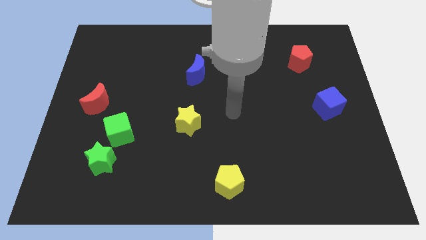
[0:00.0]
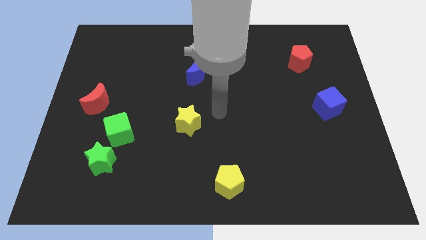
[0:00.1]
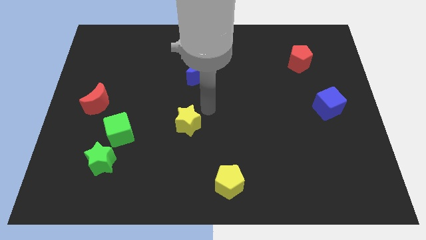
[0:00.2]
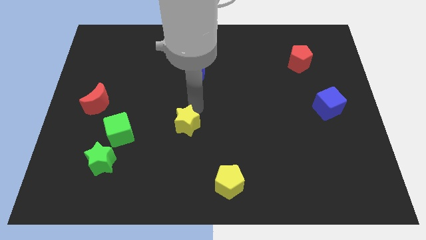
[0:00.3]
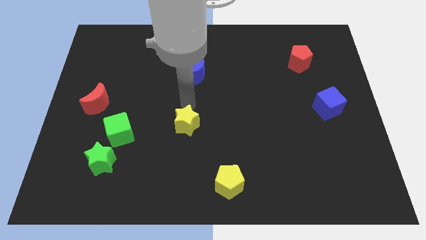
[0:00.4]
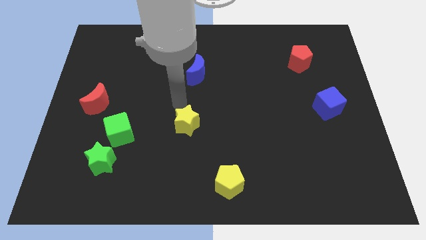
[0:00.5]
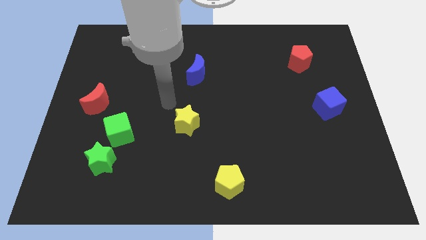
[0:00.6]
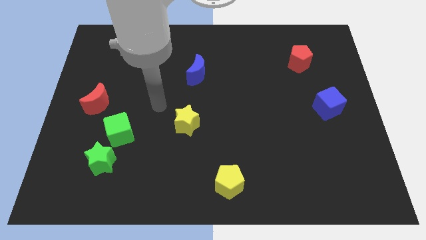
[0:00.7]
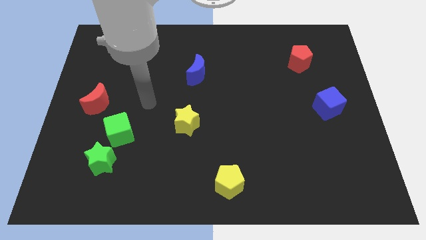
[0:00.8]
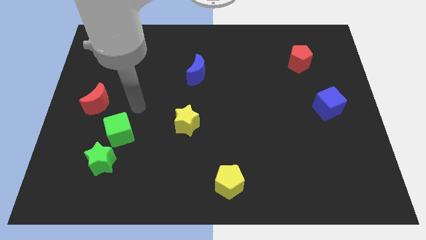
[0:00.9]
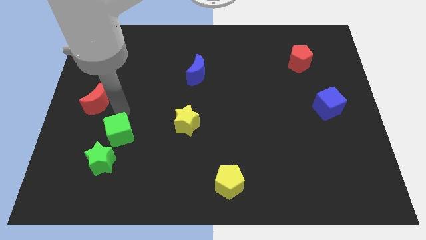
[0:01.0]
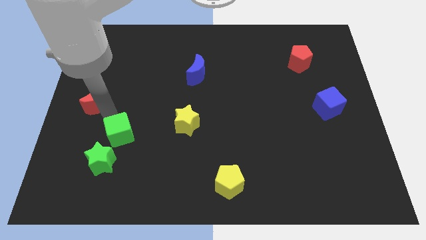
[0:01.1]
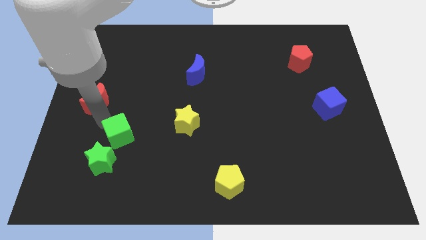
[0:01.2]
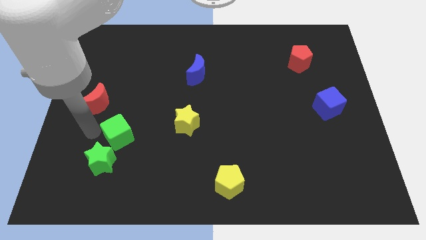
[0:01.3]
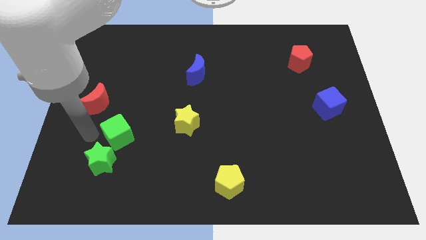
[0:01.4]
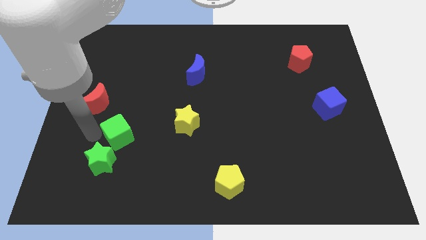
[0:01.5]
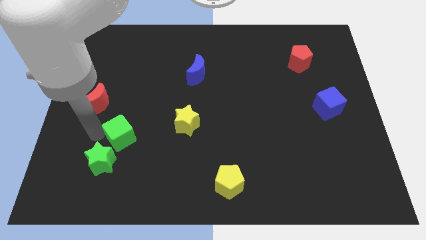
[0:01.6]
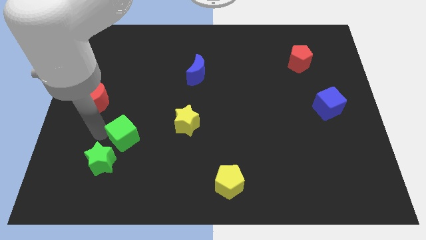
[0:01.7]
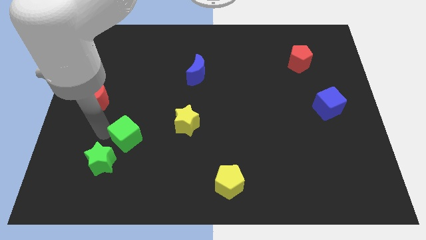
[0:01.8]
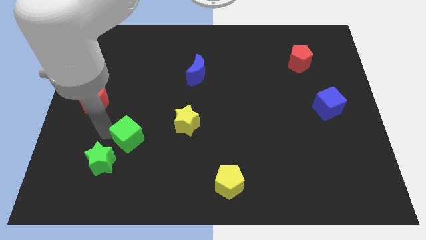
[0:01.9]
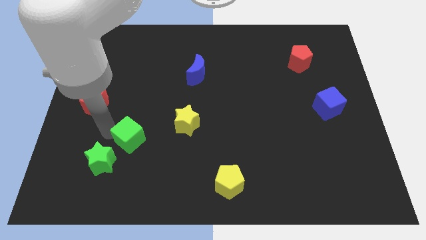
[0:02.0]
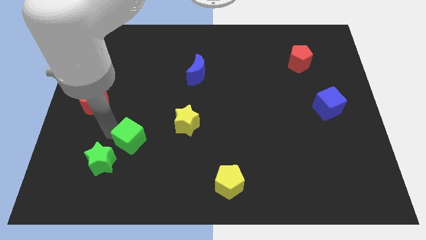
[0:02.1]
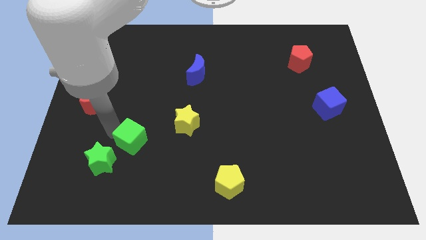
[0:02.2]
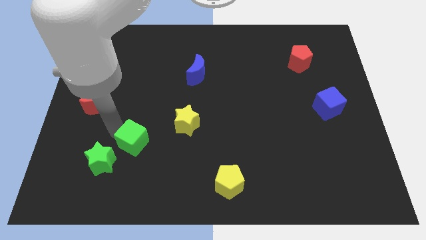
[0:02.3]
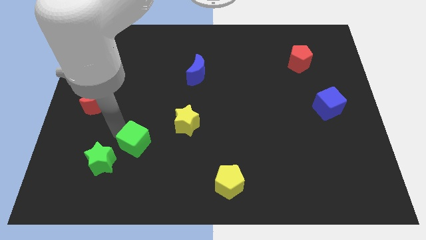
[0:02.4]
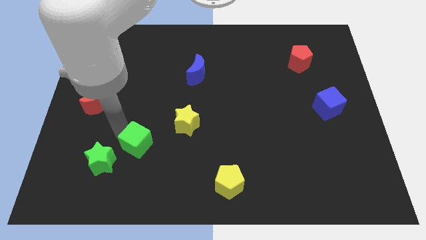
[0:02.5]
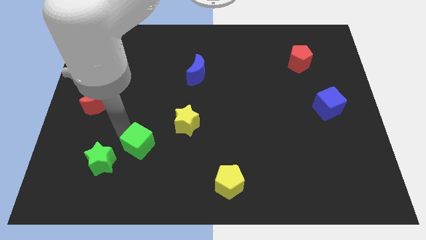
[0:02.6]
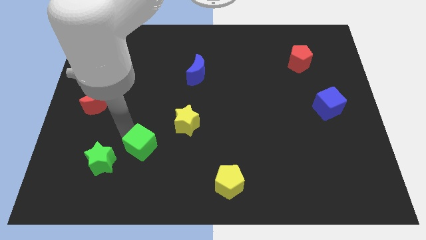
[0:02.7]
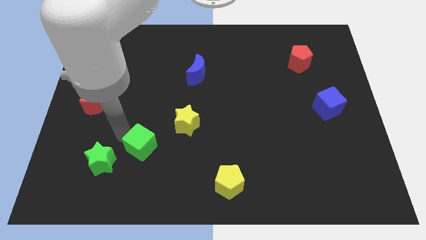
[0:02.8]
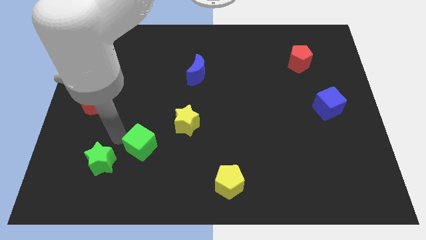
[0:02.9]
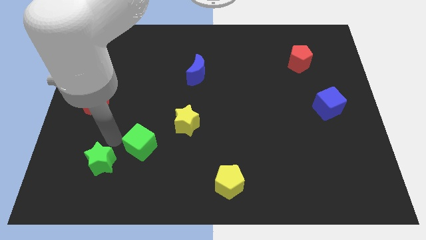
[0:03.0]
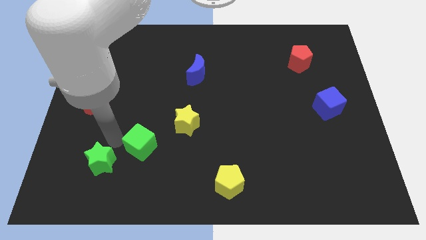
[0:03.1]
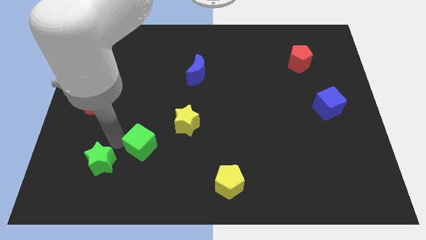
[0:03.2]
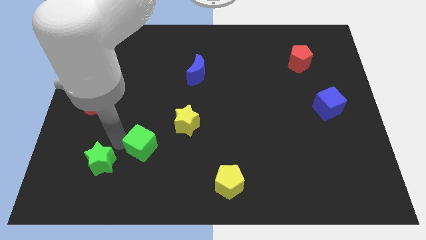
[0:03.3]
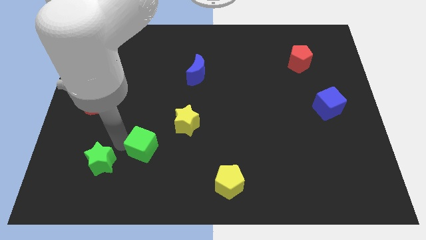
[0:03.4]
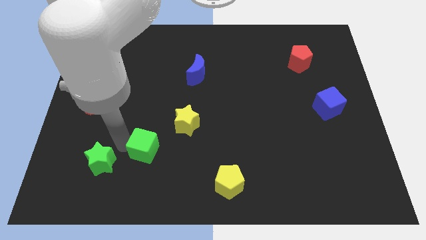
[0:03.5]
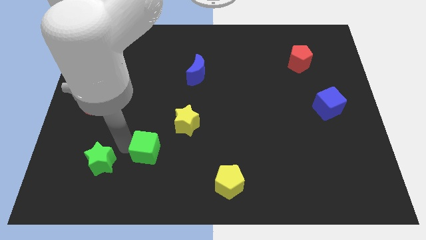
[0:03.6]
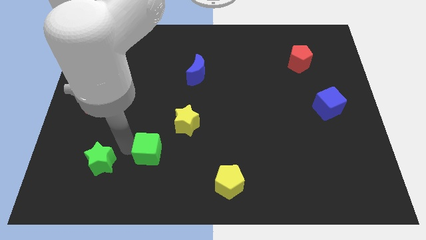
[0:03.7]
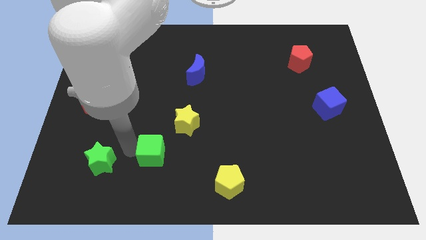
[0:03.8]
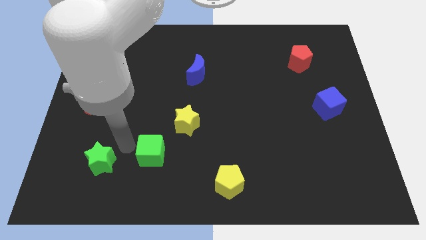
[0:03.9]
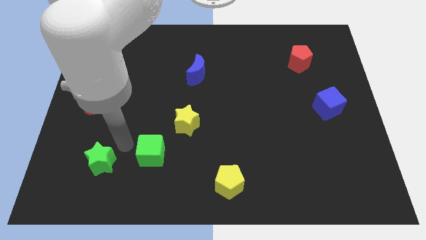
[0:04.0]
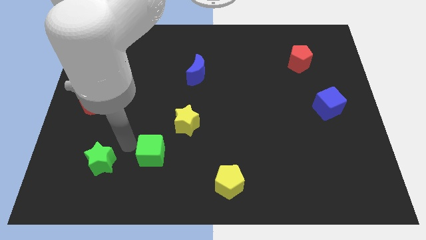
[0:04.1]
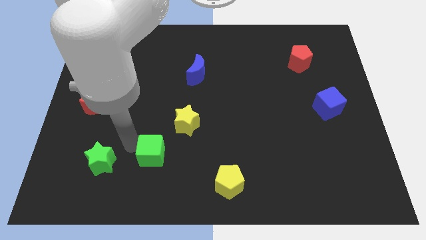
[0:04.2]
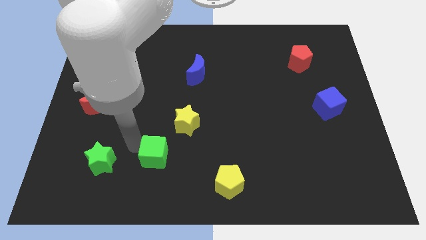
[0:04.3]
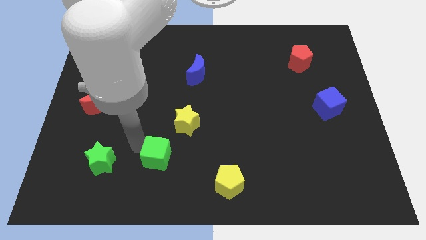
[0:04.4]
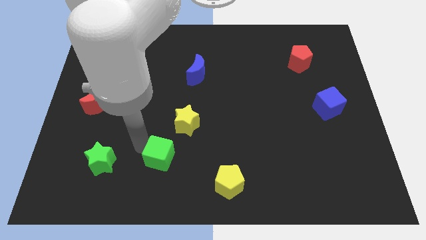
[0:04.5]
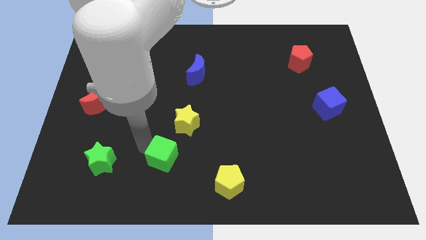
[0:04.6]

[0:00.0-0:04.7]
slide the green cube to the bottom side of the yellow star

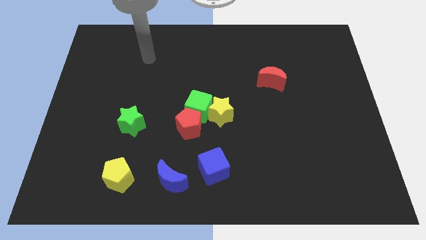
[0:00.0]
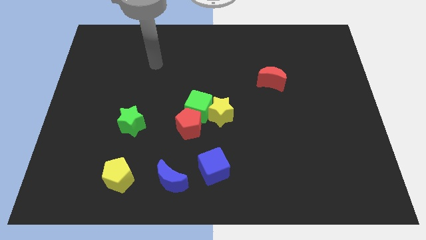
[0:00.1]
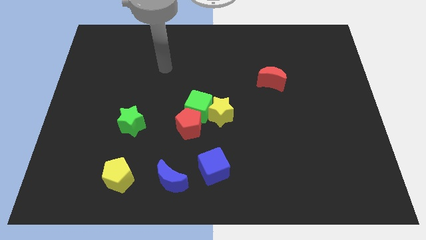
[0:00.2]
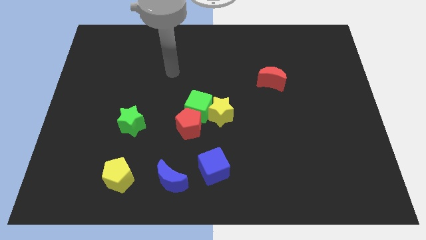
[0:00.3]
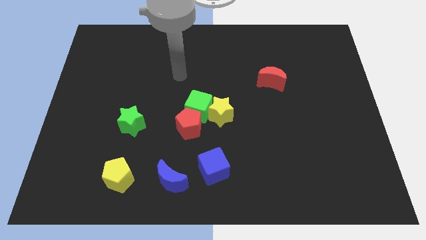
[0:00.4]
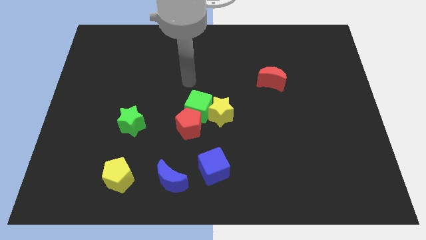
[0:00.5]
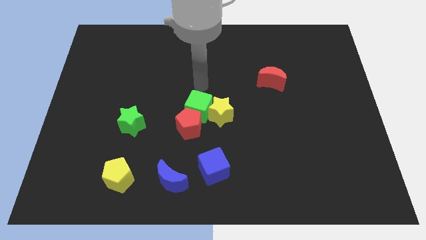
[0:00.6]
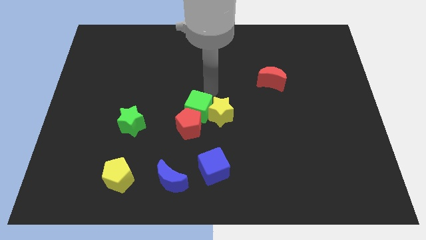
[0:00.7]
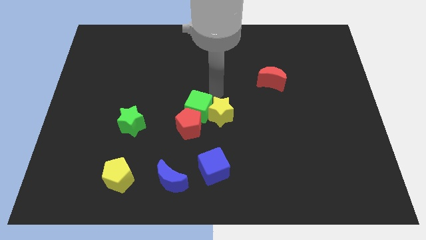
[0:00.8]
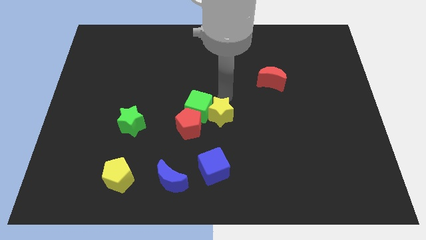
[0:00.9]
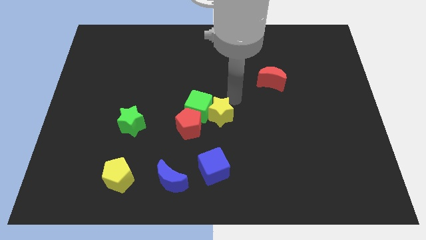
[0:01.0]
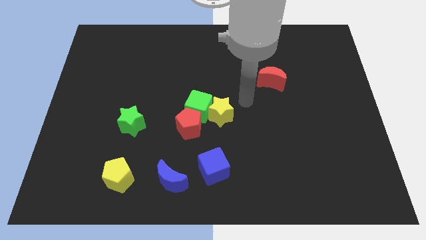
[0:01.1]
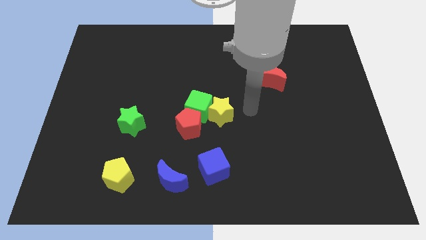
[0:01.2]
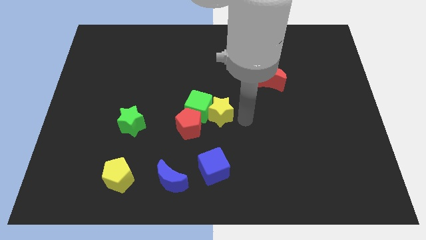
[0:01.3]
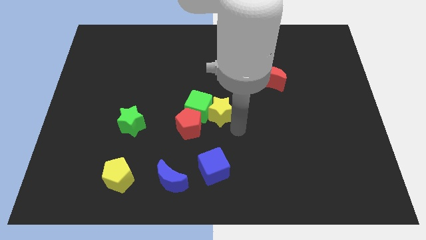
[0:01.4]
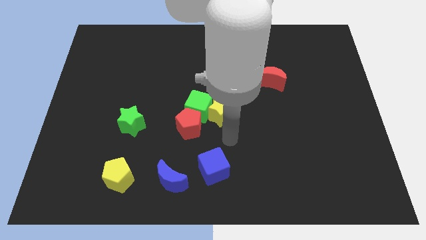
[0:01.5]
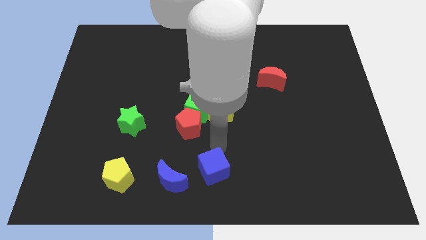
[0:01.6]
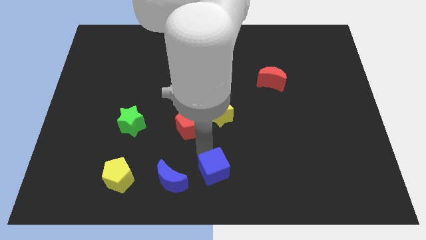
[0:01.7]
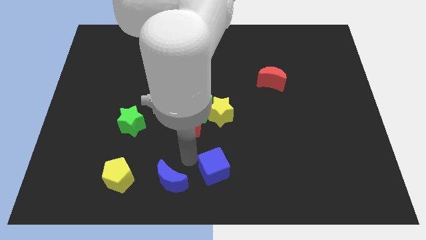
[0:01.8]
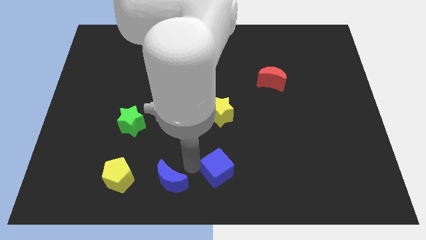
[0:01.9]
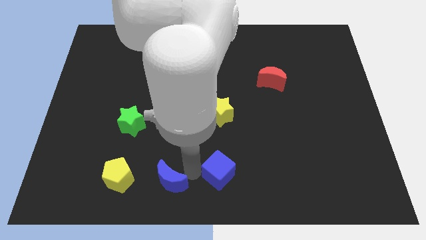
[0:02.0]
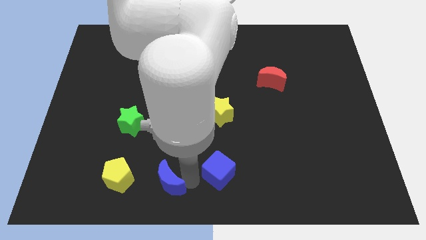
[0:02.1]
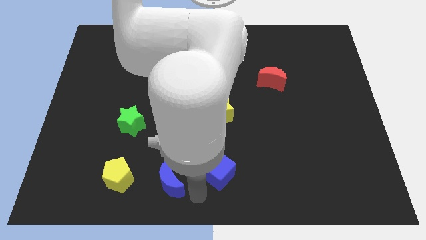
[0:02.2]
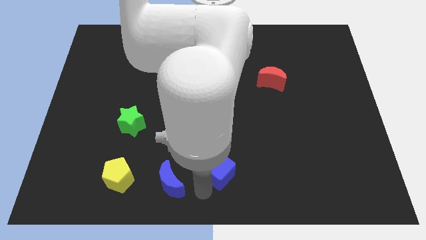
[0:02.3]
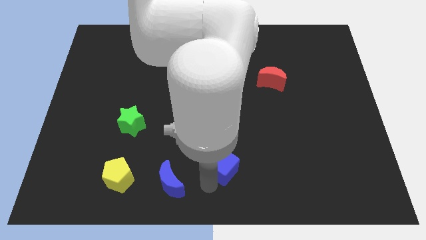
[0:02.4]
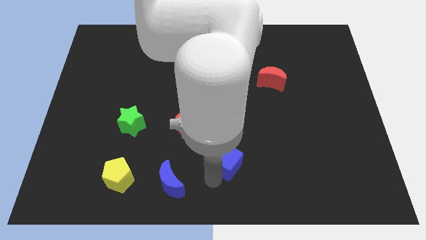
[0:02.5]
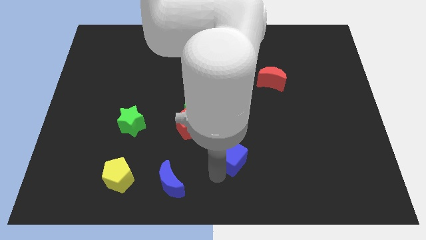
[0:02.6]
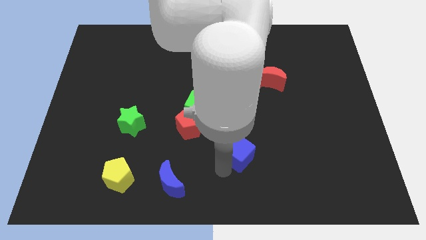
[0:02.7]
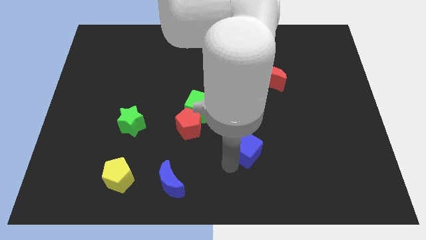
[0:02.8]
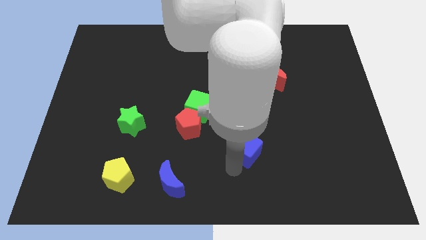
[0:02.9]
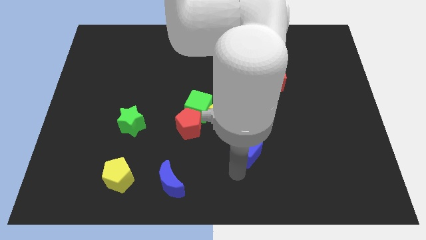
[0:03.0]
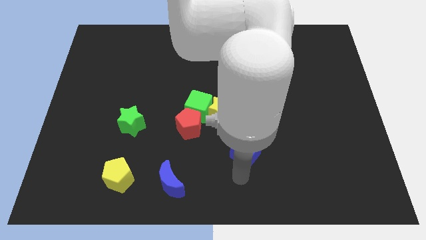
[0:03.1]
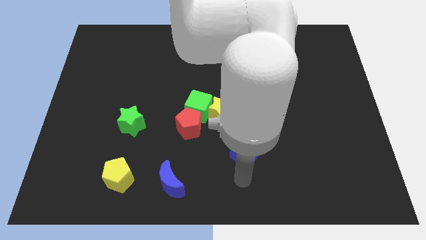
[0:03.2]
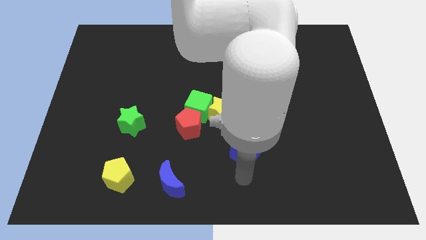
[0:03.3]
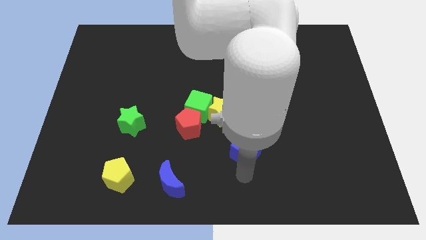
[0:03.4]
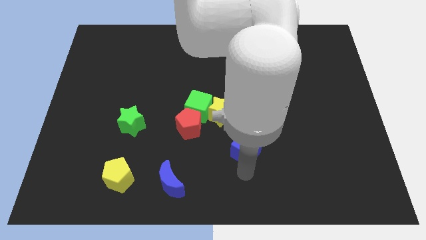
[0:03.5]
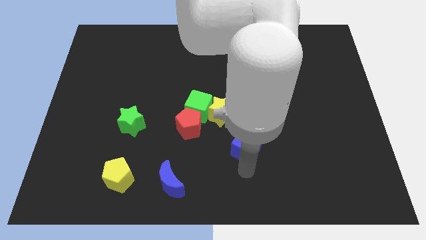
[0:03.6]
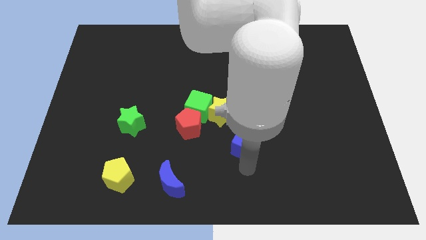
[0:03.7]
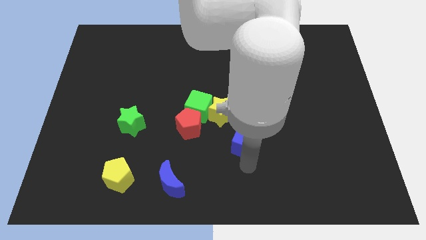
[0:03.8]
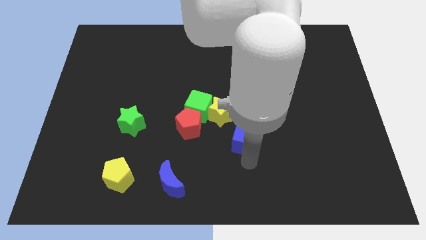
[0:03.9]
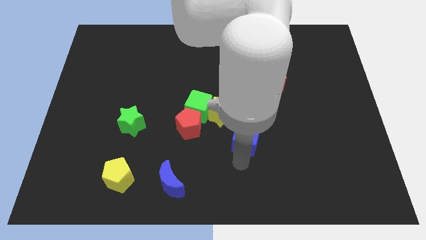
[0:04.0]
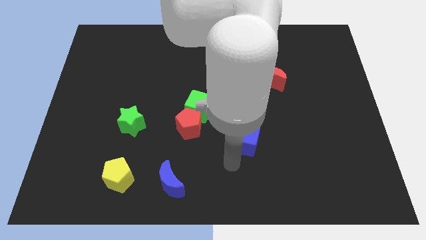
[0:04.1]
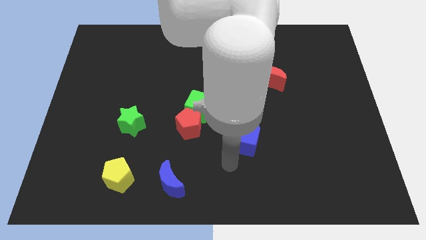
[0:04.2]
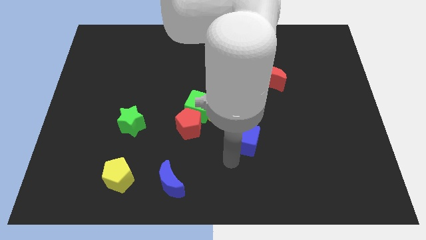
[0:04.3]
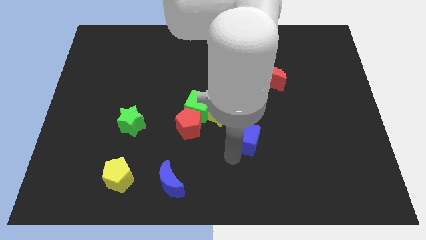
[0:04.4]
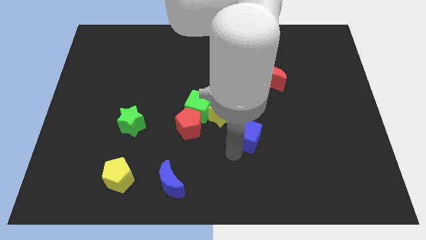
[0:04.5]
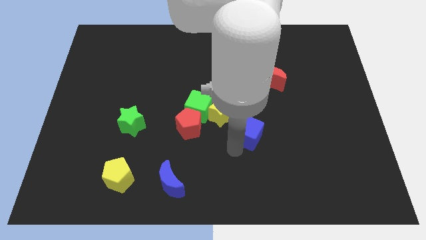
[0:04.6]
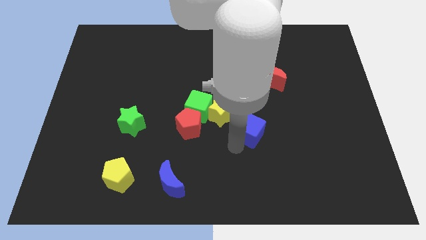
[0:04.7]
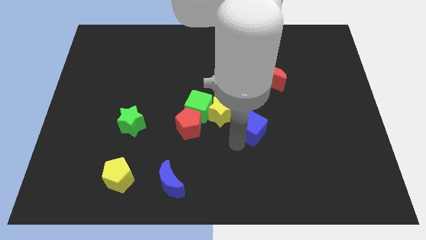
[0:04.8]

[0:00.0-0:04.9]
move the blue cube to the right of the yellow star
